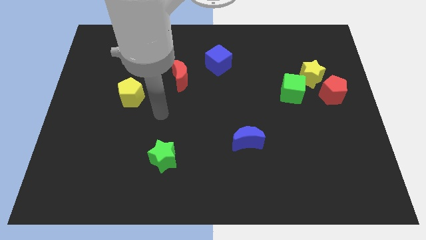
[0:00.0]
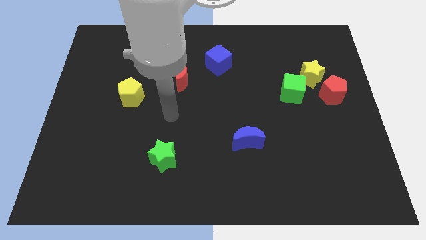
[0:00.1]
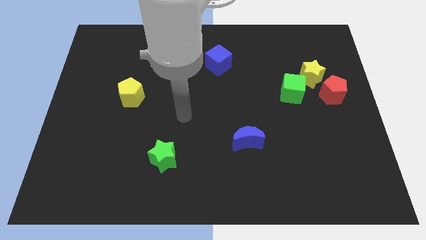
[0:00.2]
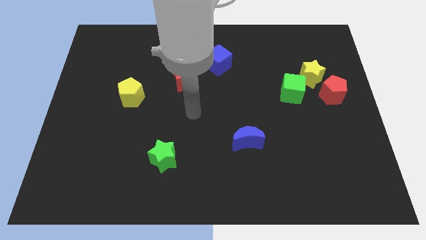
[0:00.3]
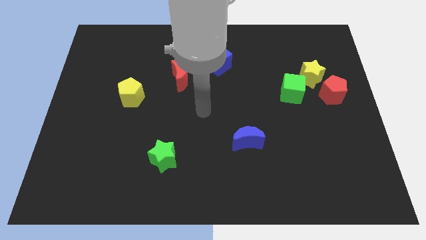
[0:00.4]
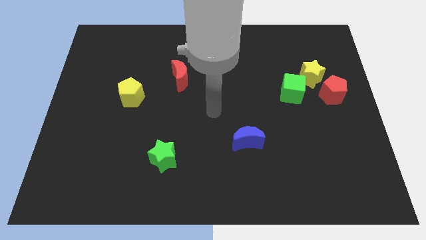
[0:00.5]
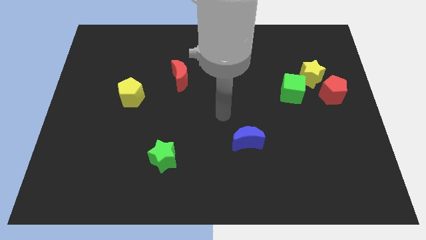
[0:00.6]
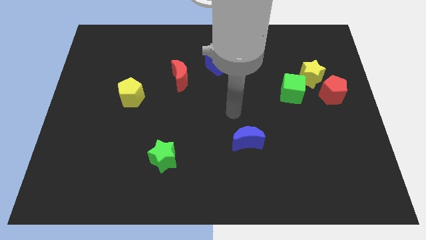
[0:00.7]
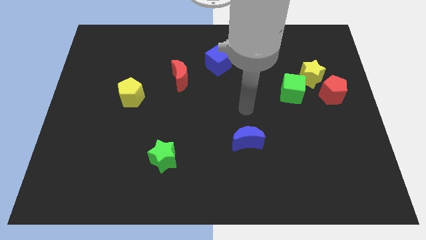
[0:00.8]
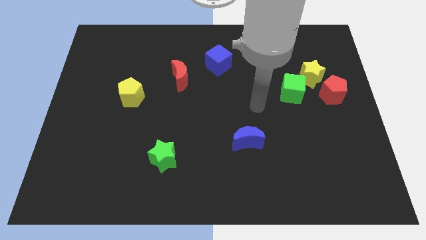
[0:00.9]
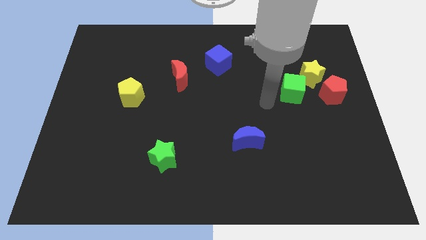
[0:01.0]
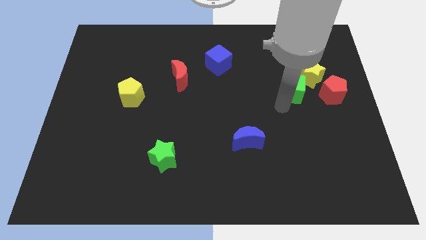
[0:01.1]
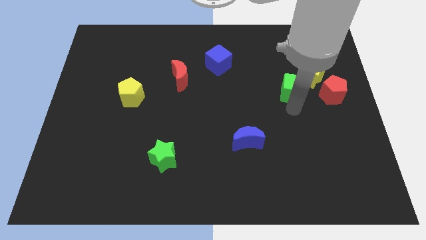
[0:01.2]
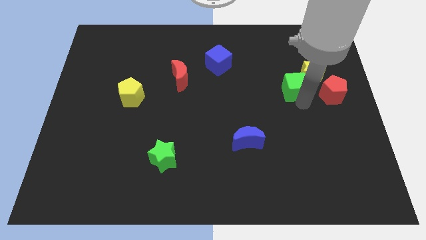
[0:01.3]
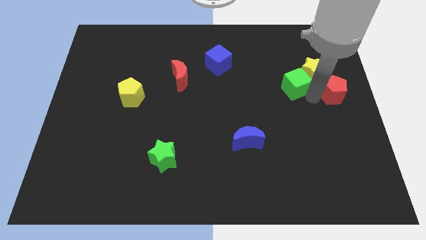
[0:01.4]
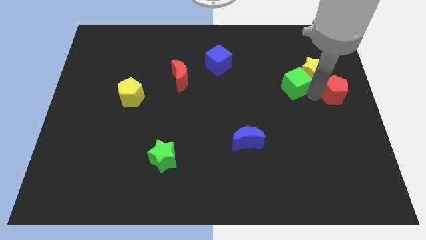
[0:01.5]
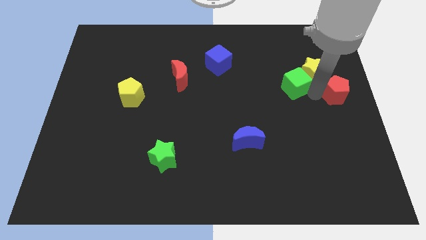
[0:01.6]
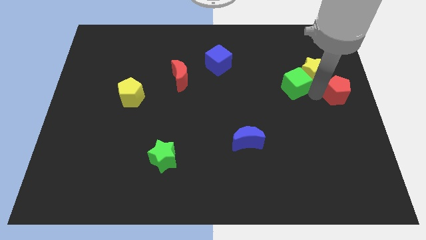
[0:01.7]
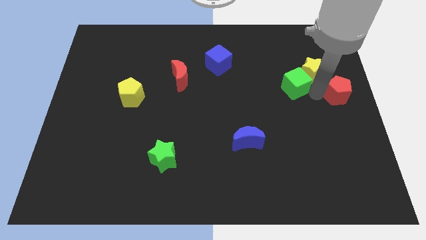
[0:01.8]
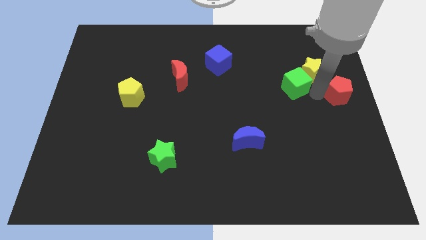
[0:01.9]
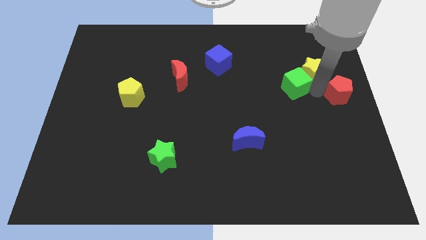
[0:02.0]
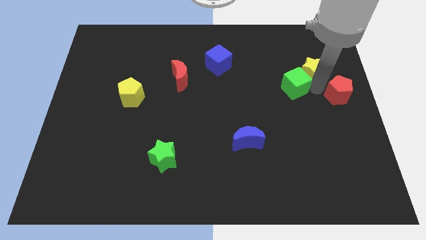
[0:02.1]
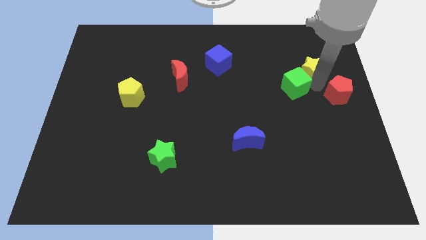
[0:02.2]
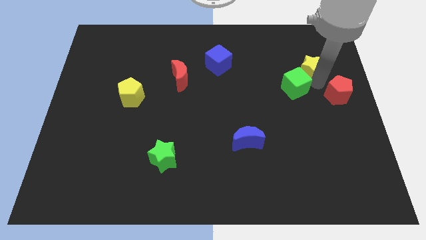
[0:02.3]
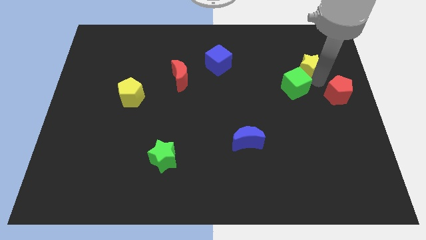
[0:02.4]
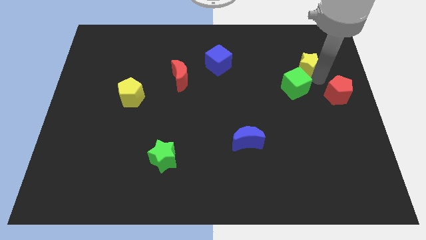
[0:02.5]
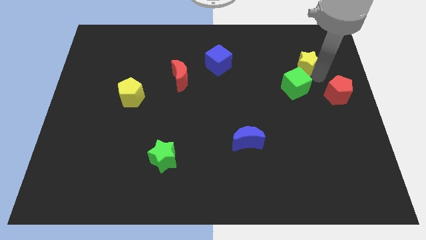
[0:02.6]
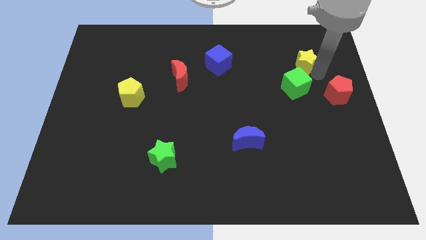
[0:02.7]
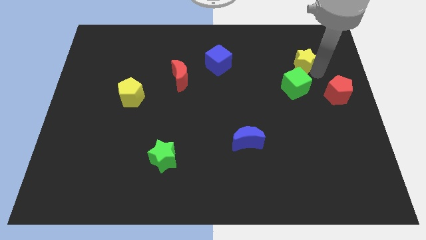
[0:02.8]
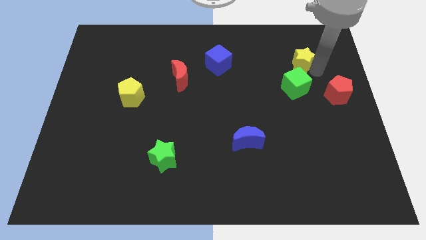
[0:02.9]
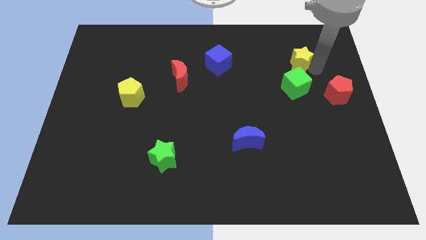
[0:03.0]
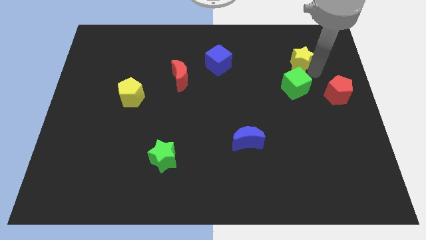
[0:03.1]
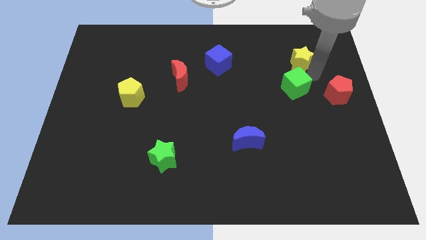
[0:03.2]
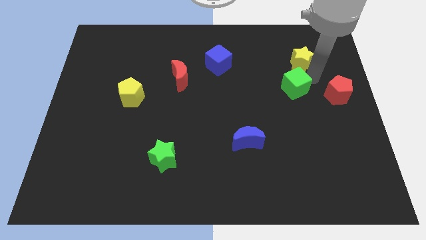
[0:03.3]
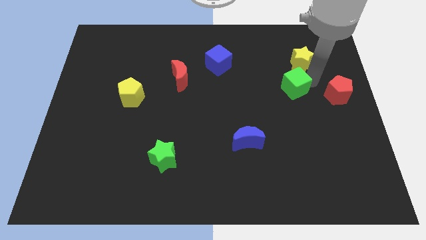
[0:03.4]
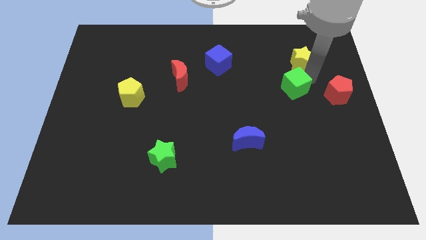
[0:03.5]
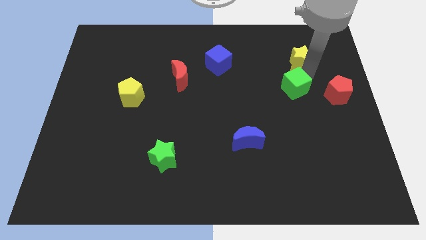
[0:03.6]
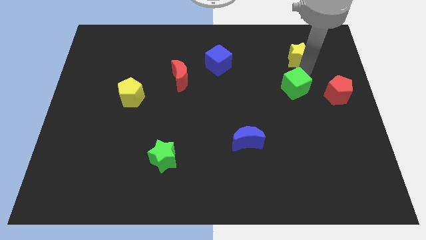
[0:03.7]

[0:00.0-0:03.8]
pull the yellow star apart from the red pentagon and green cube

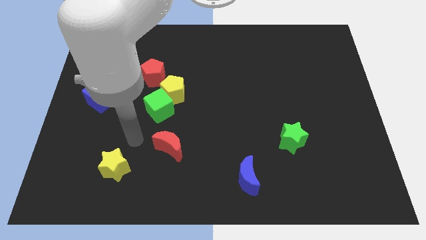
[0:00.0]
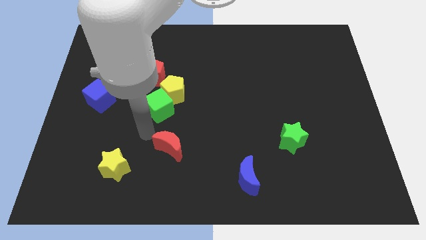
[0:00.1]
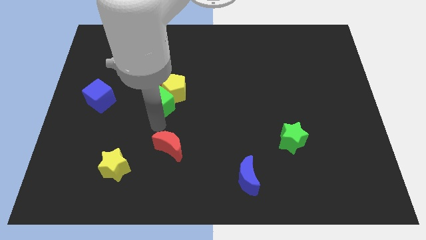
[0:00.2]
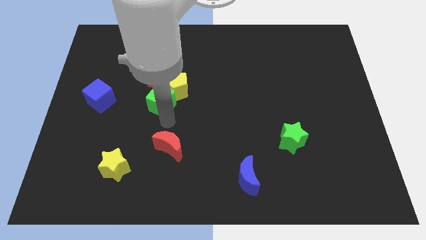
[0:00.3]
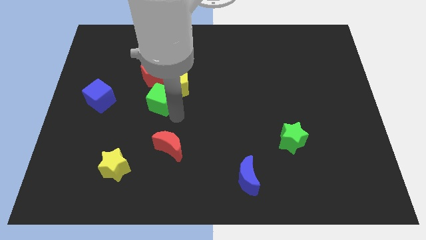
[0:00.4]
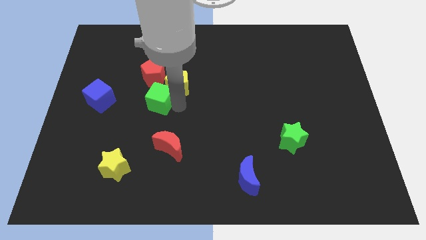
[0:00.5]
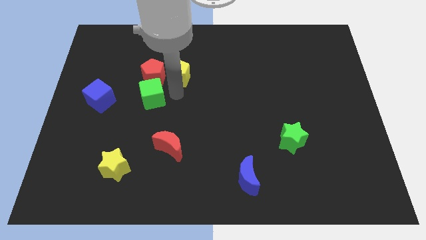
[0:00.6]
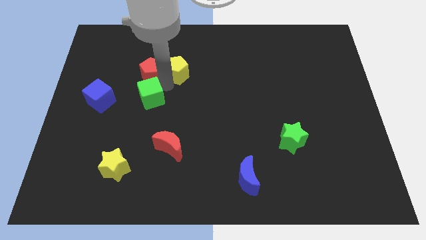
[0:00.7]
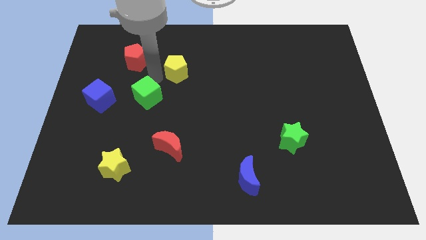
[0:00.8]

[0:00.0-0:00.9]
move the green cube away from the yellow pentagon

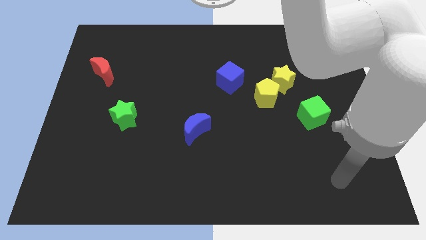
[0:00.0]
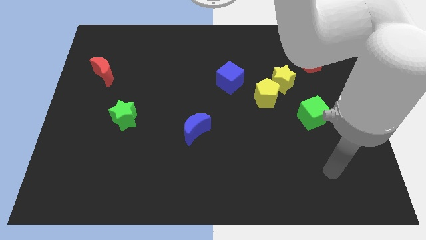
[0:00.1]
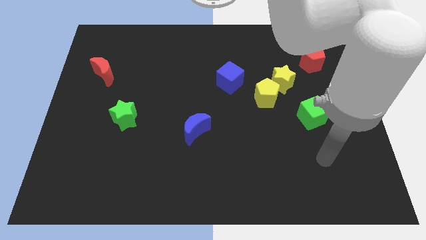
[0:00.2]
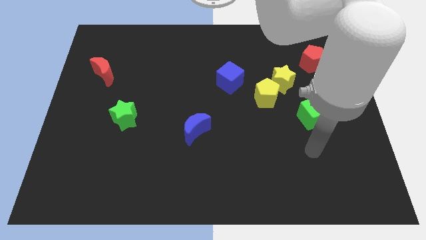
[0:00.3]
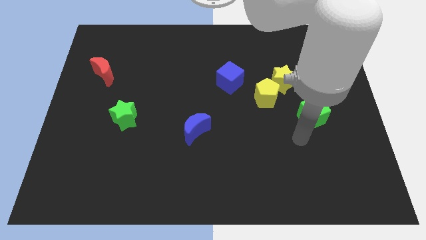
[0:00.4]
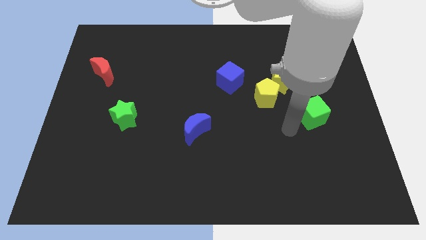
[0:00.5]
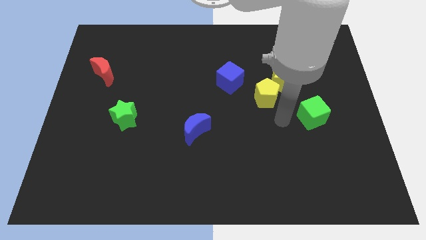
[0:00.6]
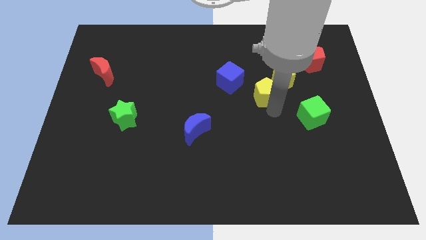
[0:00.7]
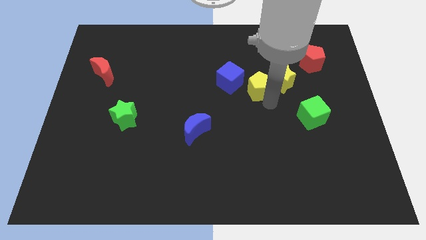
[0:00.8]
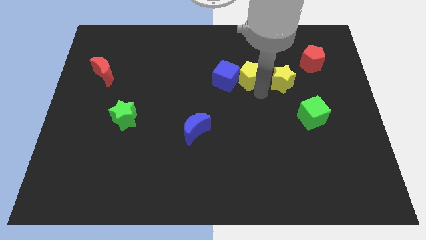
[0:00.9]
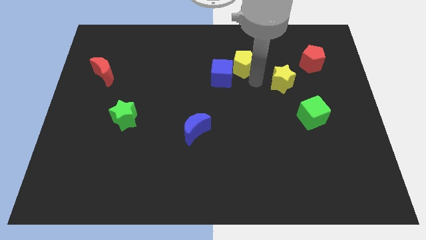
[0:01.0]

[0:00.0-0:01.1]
move the yellow star away from the yellow pentagon

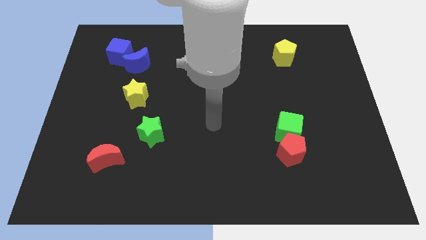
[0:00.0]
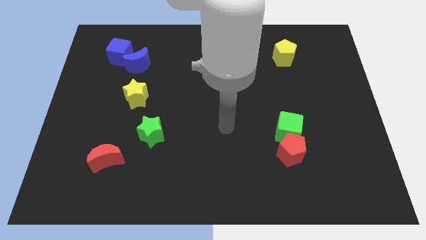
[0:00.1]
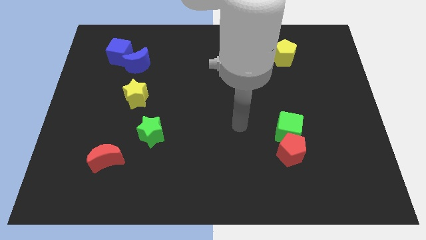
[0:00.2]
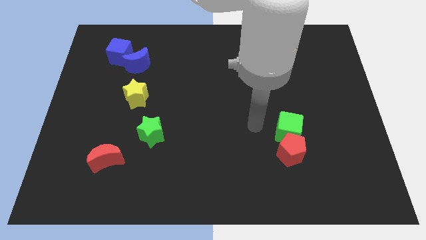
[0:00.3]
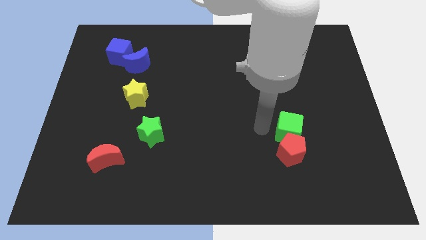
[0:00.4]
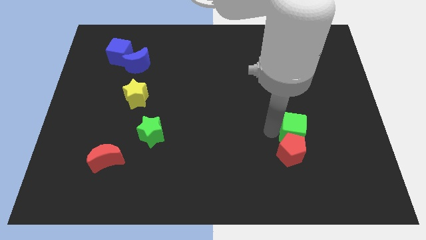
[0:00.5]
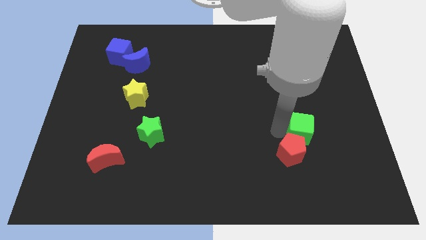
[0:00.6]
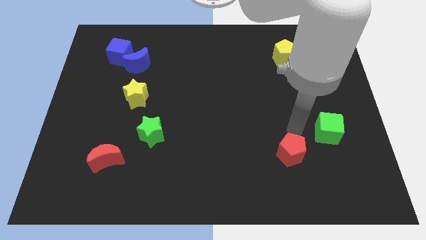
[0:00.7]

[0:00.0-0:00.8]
separate the red pentagon from the green cube

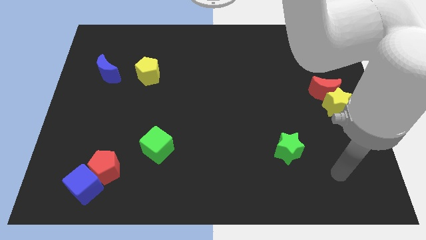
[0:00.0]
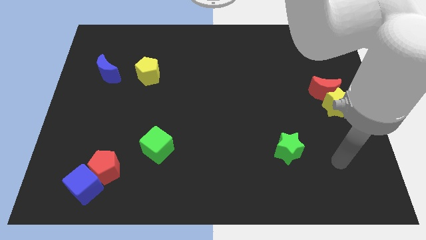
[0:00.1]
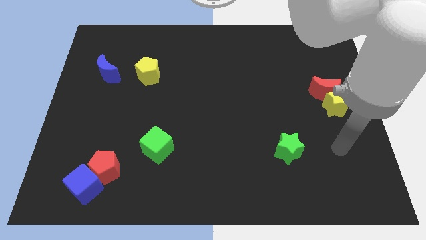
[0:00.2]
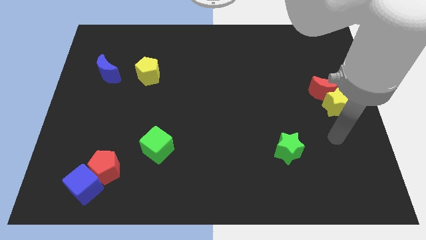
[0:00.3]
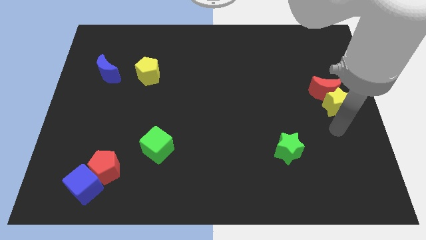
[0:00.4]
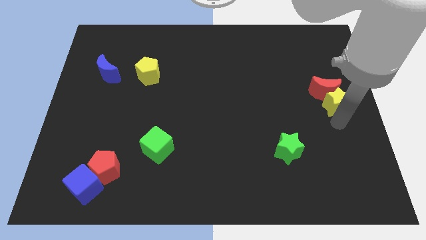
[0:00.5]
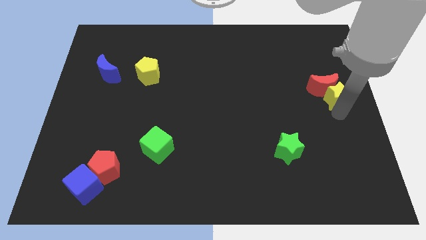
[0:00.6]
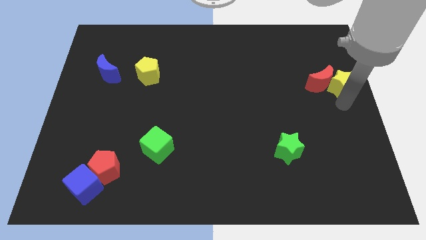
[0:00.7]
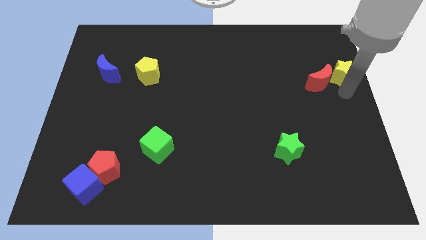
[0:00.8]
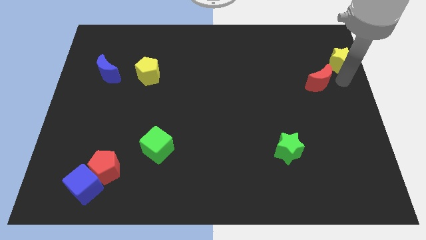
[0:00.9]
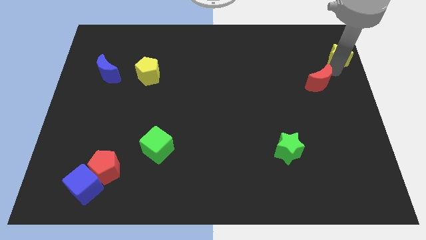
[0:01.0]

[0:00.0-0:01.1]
move the red moon away from the yellow star

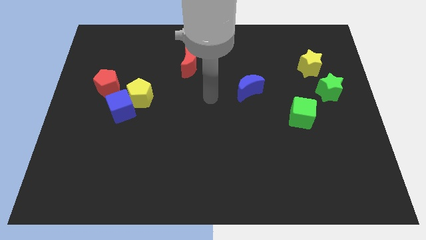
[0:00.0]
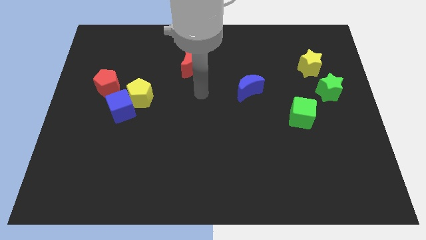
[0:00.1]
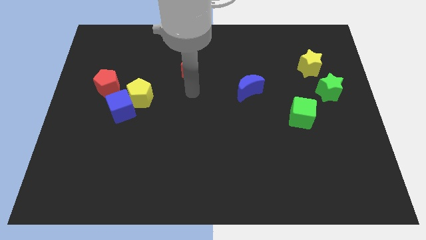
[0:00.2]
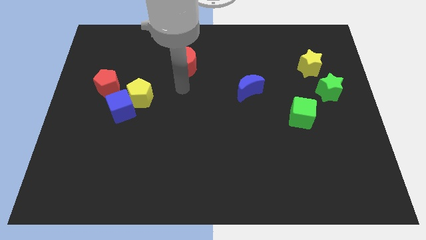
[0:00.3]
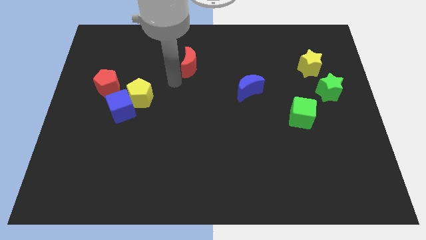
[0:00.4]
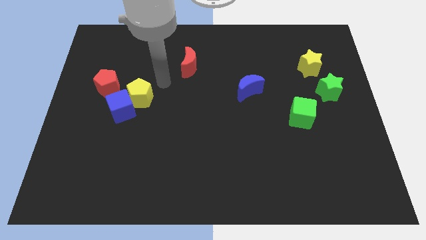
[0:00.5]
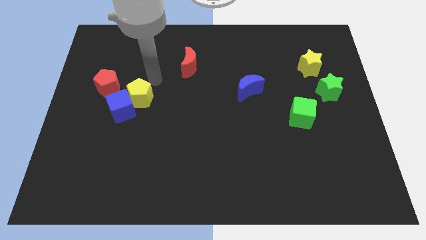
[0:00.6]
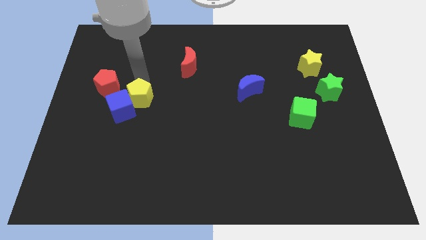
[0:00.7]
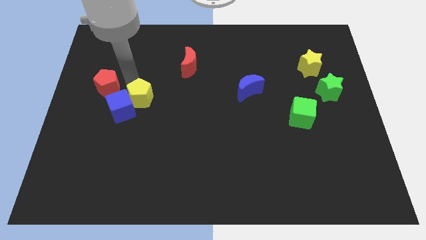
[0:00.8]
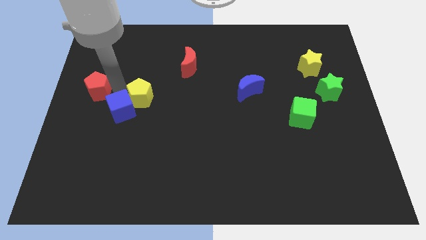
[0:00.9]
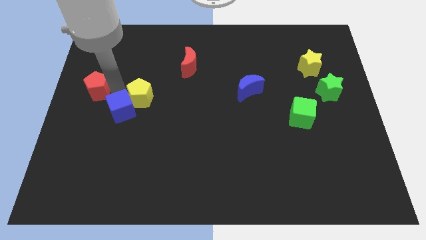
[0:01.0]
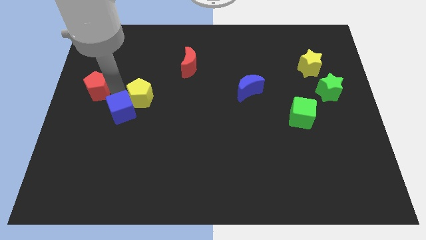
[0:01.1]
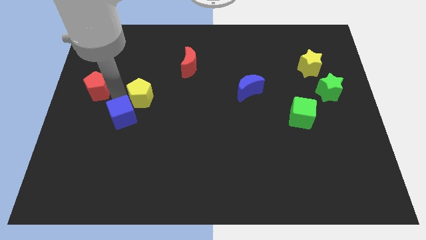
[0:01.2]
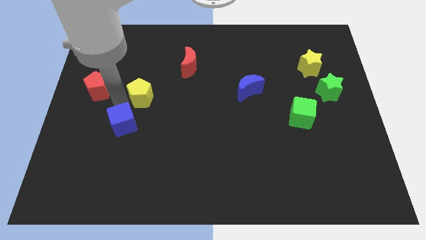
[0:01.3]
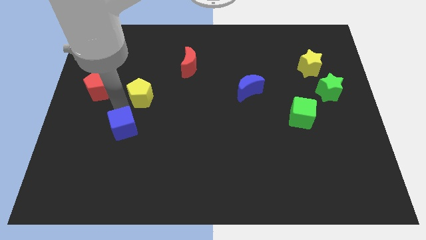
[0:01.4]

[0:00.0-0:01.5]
separate the blue cube from the yellow pentagon and red pentagon
